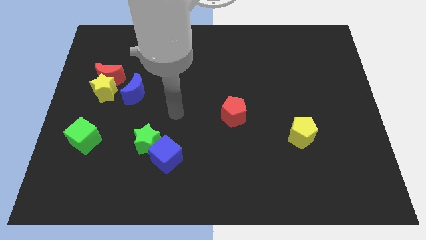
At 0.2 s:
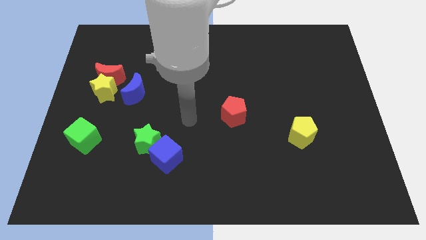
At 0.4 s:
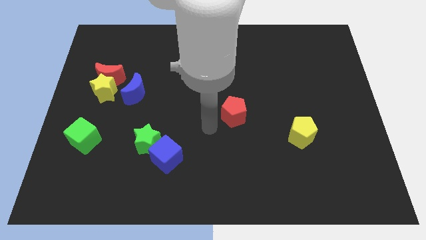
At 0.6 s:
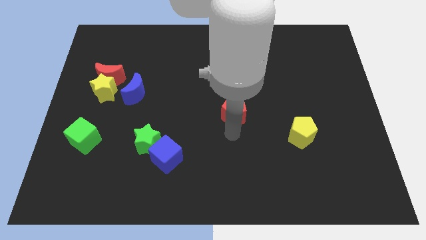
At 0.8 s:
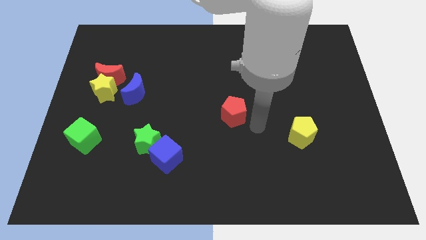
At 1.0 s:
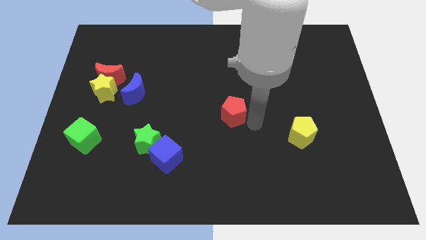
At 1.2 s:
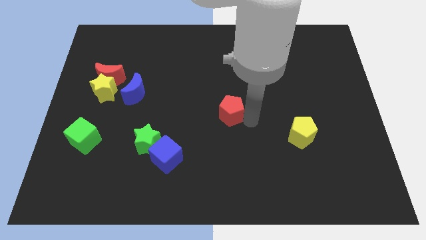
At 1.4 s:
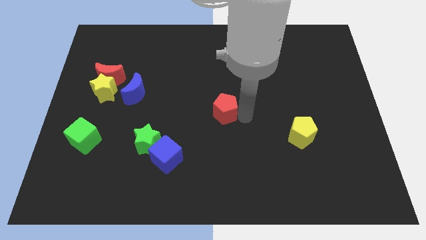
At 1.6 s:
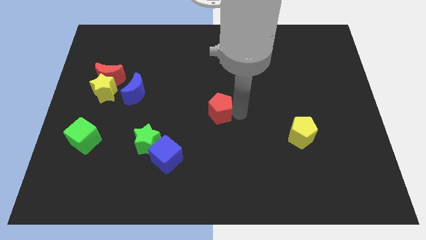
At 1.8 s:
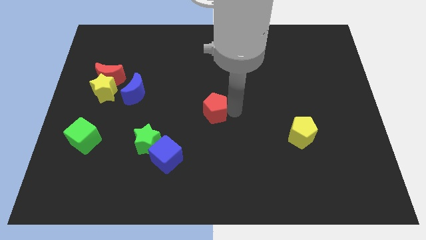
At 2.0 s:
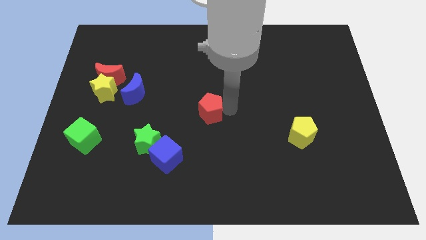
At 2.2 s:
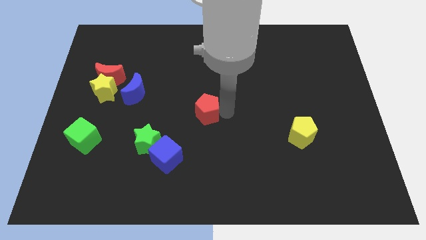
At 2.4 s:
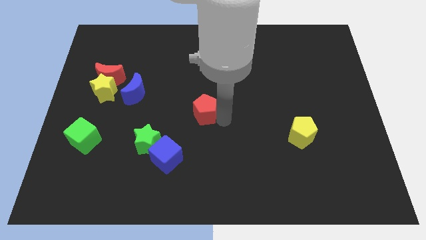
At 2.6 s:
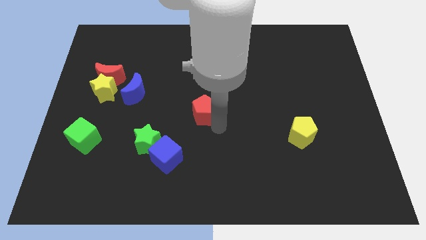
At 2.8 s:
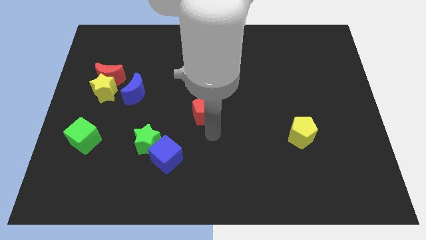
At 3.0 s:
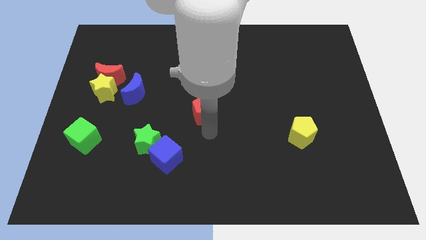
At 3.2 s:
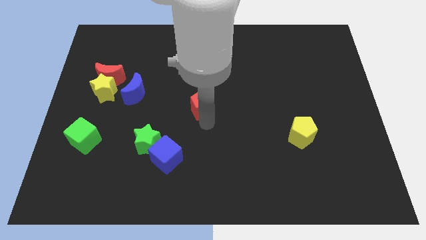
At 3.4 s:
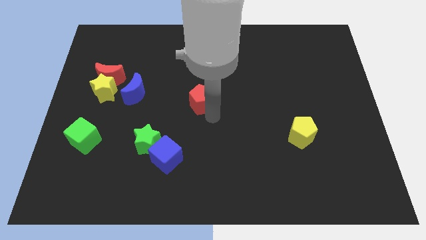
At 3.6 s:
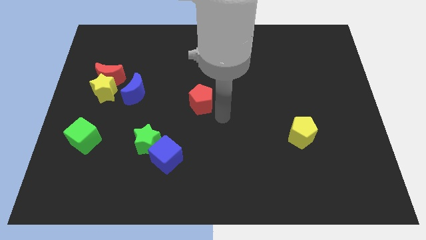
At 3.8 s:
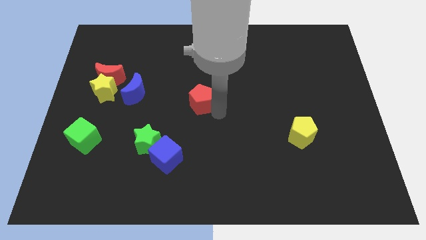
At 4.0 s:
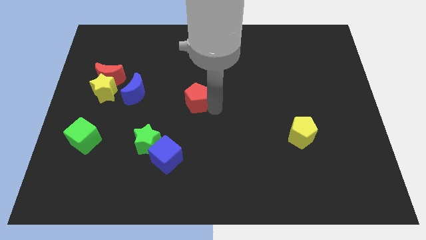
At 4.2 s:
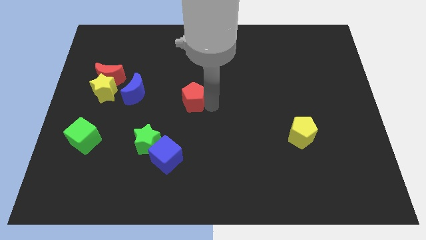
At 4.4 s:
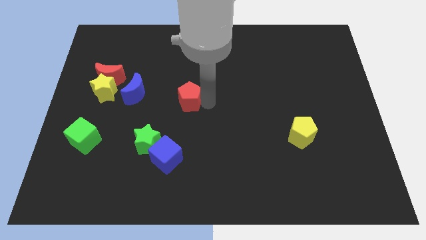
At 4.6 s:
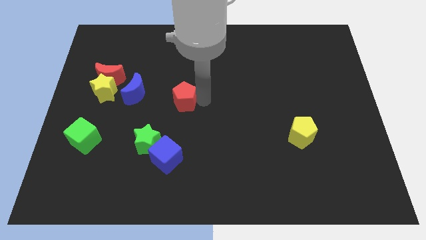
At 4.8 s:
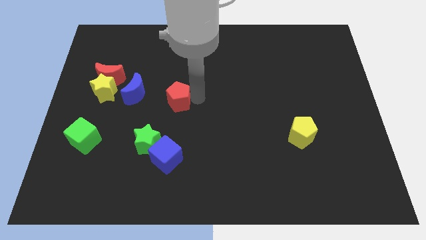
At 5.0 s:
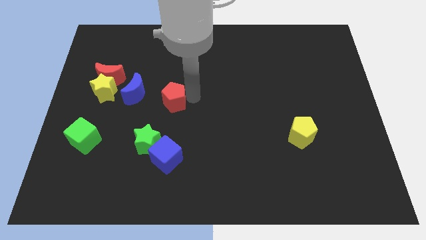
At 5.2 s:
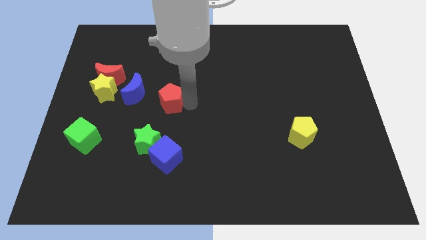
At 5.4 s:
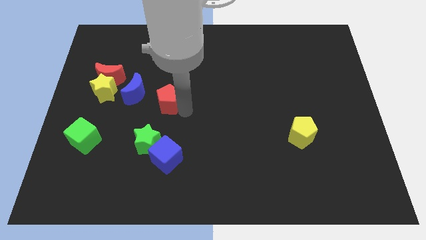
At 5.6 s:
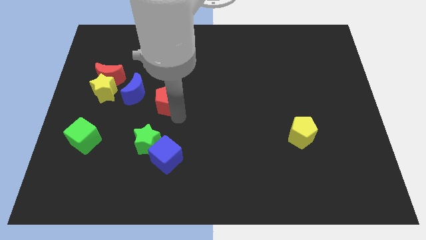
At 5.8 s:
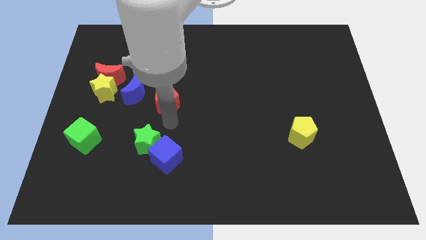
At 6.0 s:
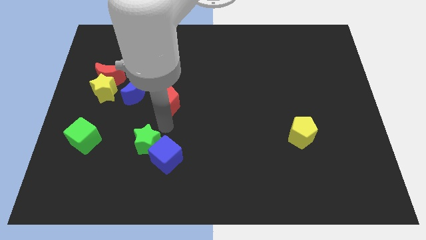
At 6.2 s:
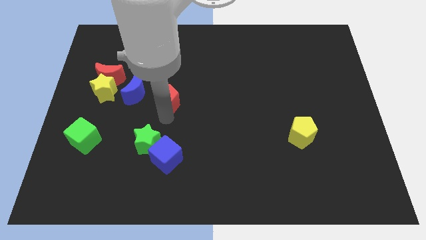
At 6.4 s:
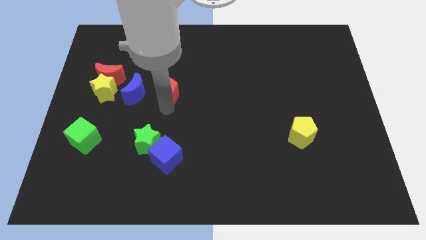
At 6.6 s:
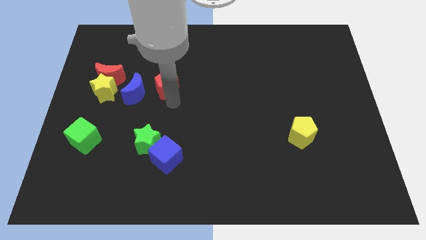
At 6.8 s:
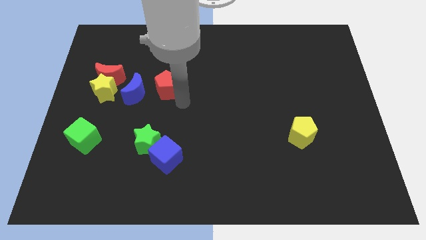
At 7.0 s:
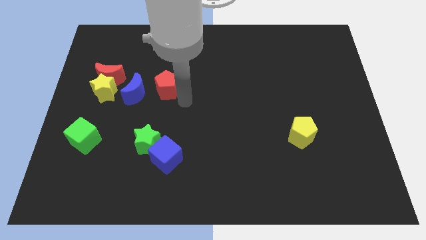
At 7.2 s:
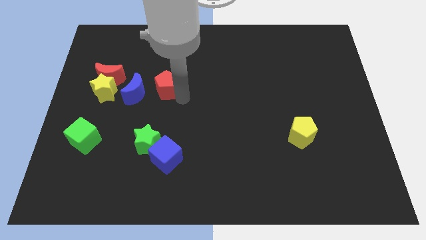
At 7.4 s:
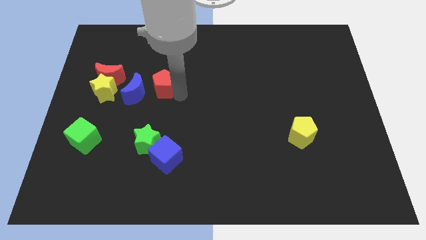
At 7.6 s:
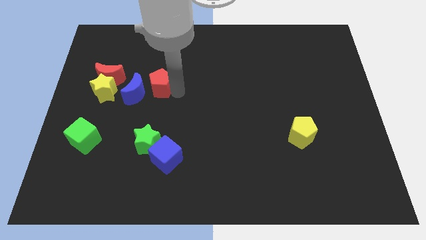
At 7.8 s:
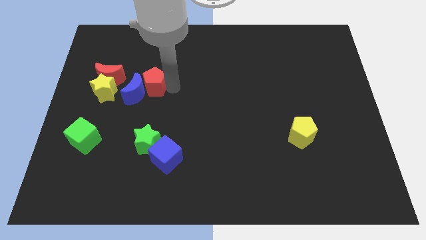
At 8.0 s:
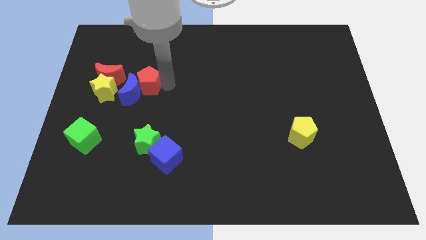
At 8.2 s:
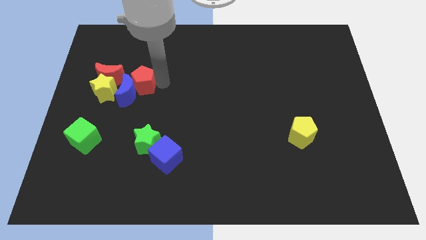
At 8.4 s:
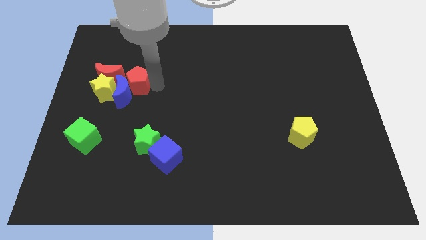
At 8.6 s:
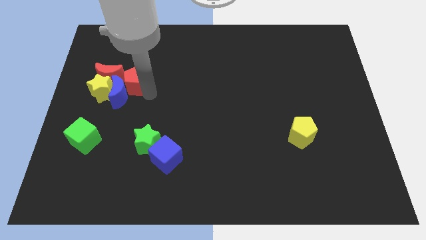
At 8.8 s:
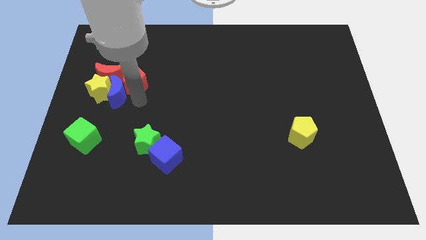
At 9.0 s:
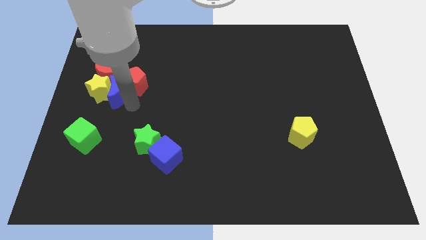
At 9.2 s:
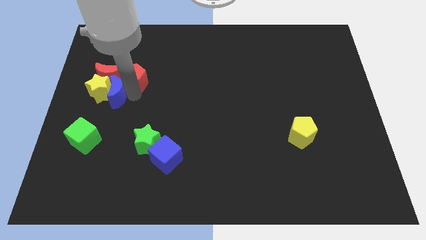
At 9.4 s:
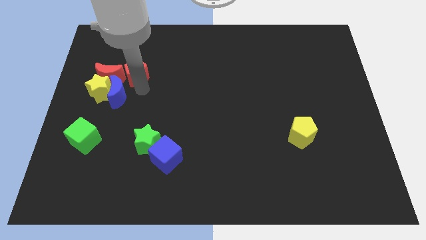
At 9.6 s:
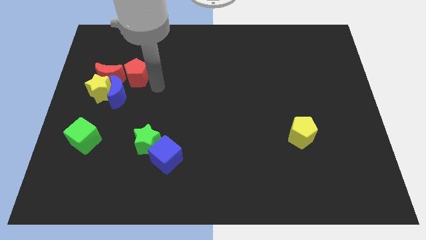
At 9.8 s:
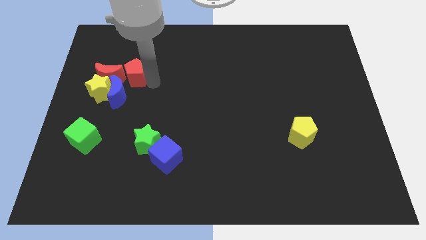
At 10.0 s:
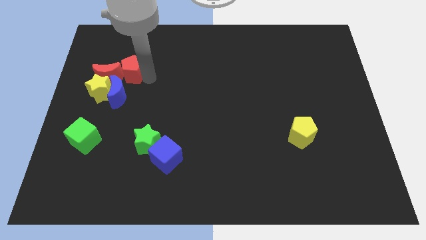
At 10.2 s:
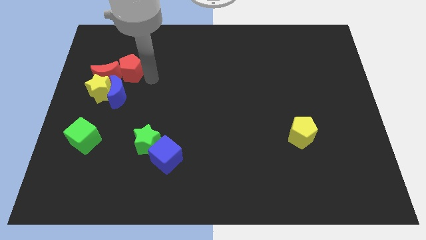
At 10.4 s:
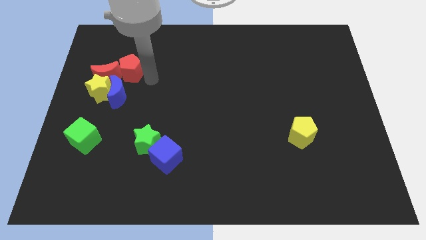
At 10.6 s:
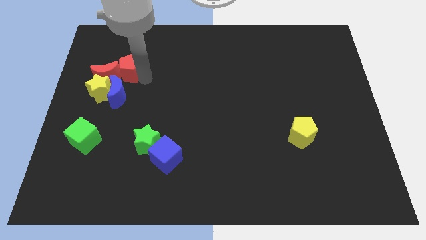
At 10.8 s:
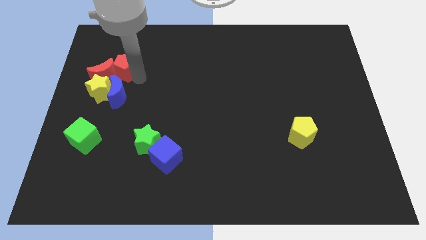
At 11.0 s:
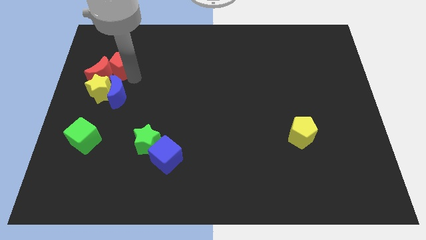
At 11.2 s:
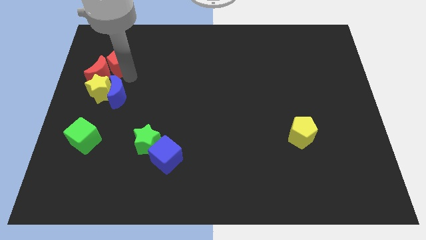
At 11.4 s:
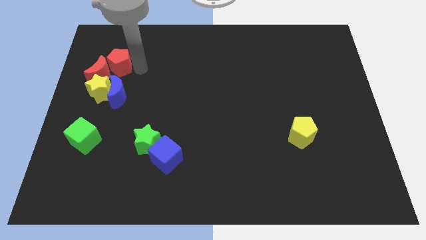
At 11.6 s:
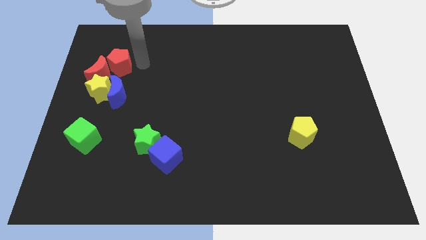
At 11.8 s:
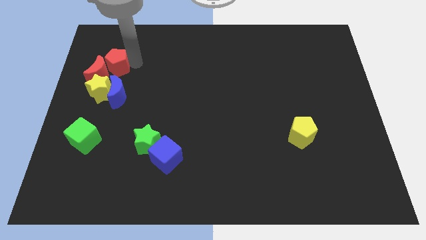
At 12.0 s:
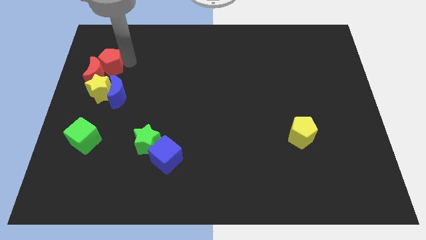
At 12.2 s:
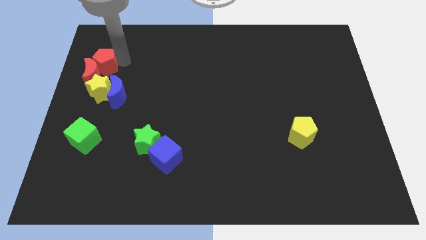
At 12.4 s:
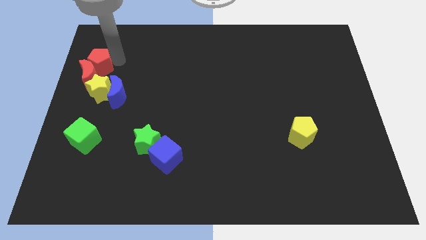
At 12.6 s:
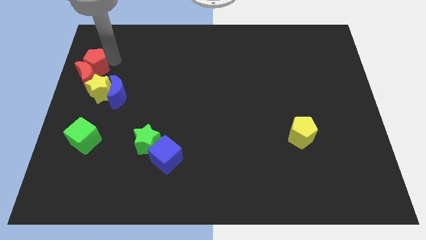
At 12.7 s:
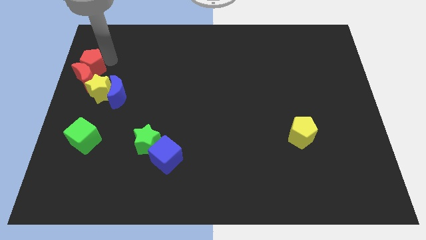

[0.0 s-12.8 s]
push the red pentagon to the left side
